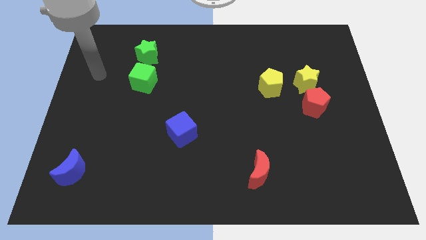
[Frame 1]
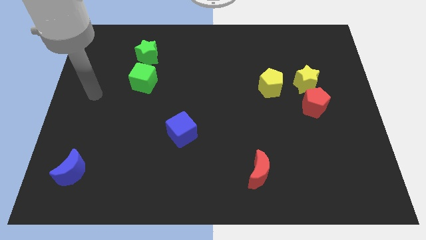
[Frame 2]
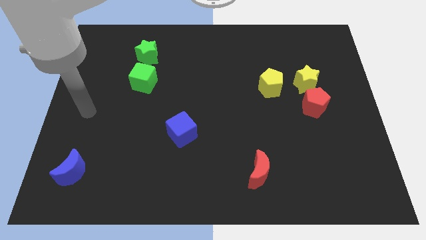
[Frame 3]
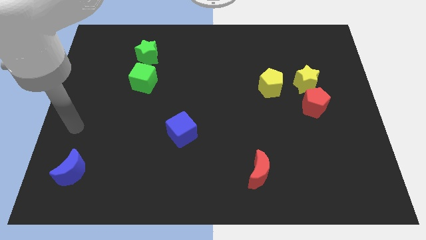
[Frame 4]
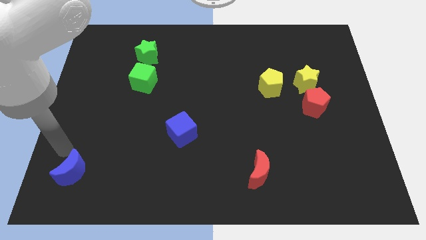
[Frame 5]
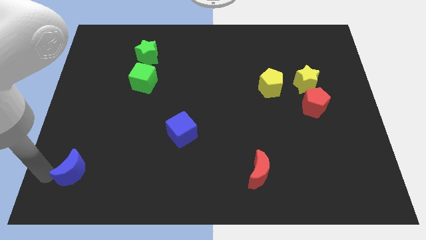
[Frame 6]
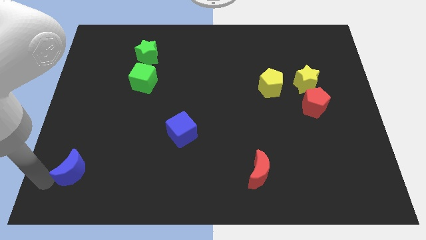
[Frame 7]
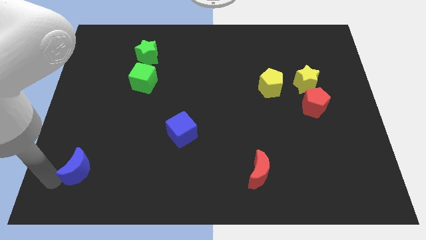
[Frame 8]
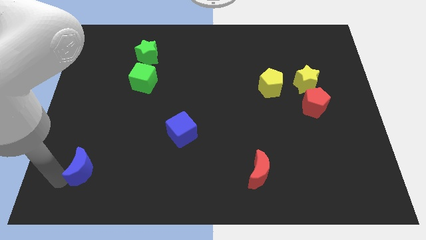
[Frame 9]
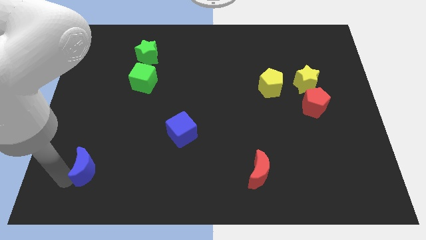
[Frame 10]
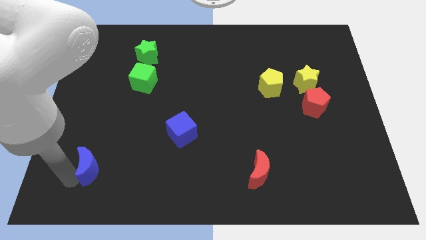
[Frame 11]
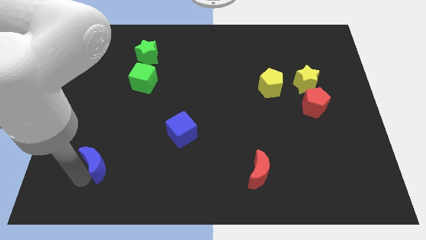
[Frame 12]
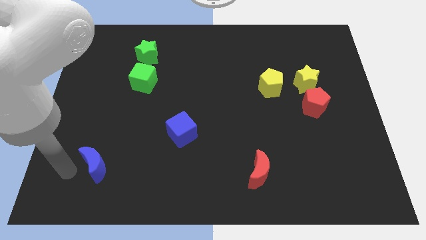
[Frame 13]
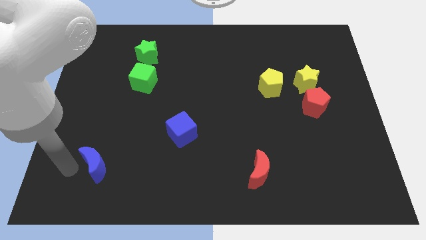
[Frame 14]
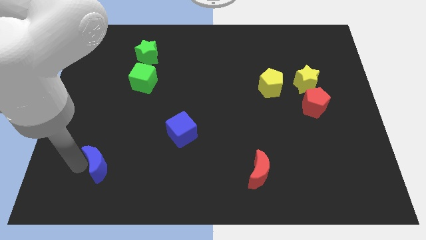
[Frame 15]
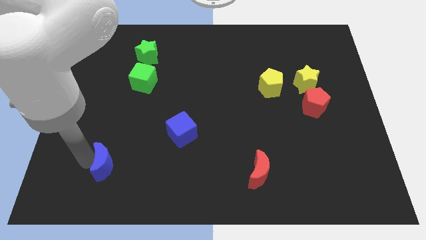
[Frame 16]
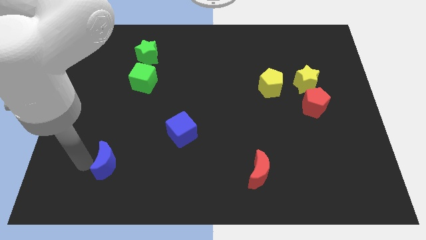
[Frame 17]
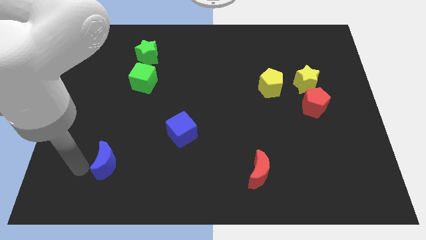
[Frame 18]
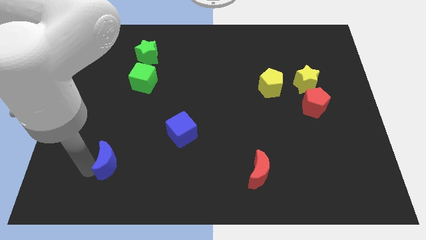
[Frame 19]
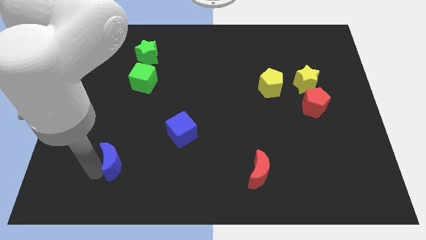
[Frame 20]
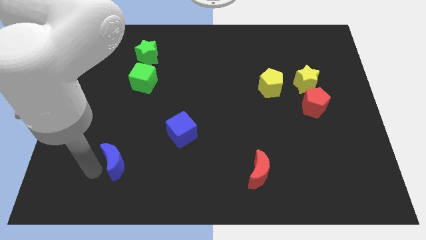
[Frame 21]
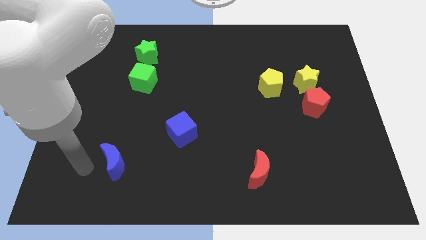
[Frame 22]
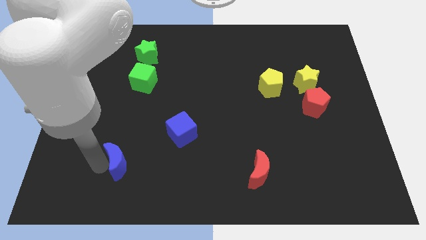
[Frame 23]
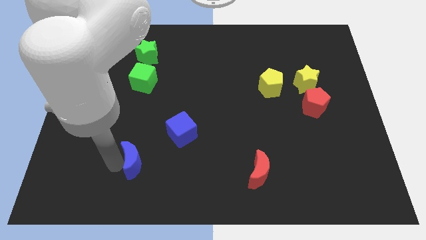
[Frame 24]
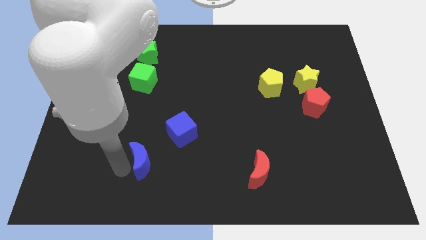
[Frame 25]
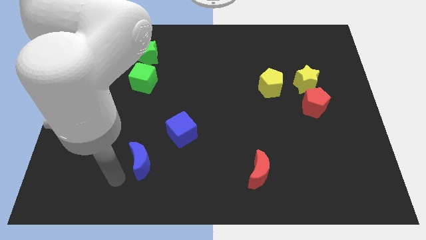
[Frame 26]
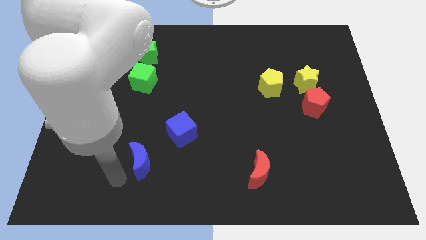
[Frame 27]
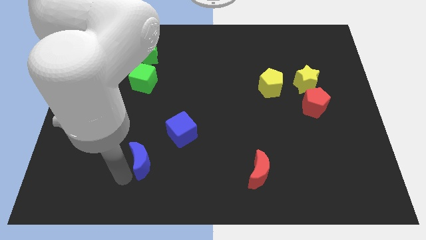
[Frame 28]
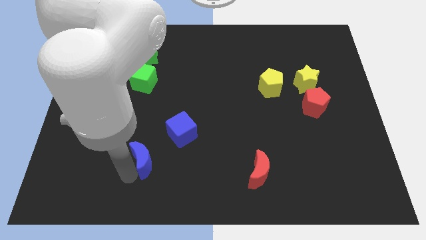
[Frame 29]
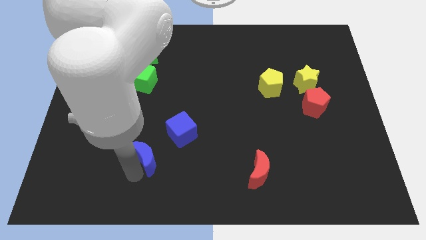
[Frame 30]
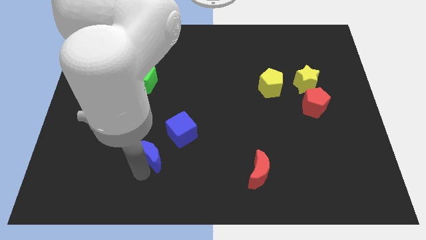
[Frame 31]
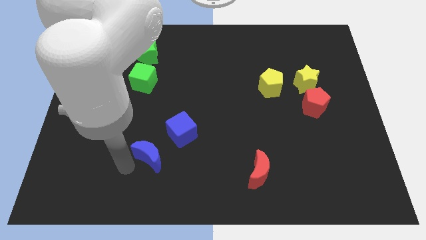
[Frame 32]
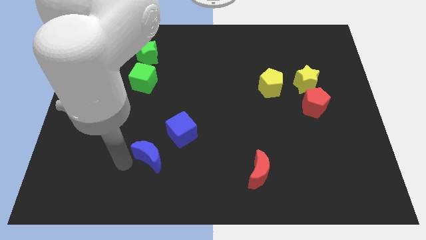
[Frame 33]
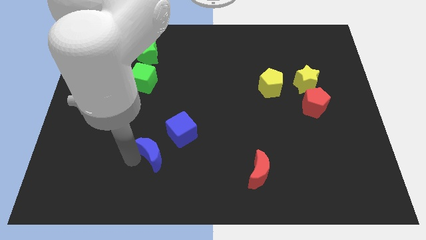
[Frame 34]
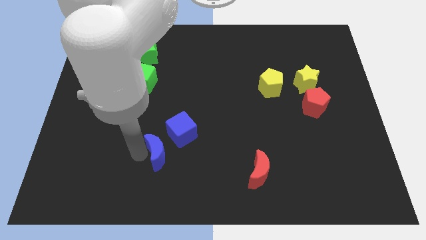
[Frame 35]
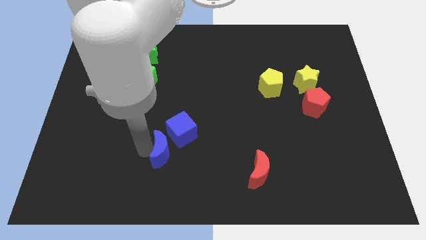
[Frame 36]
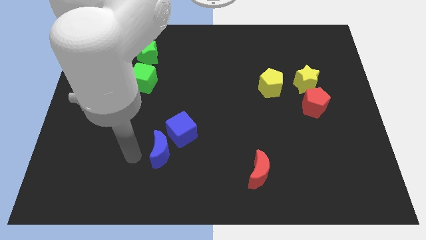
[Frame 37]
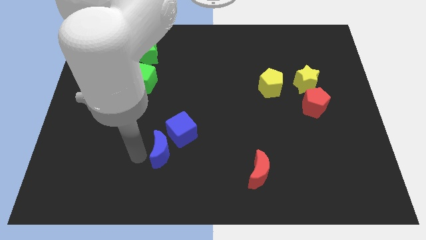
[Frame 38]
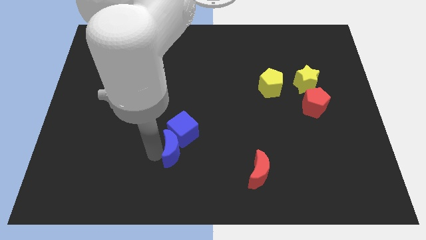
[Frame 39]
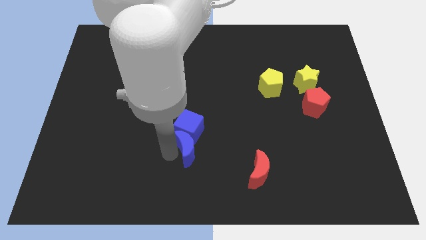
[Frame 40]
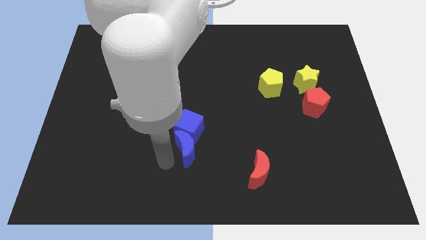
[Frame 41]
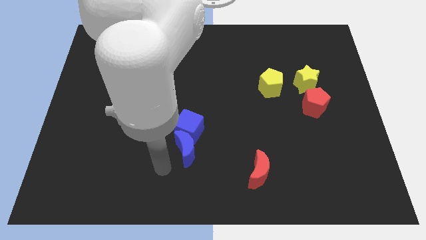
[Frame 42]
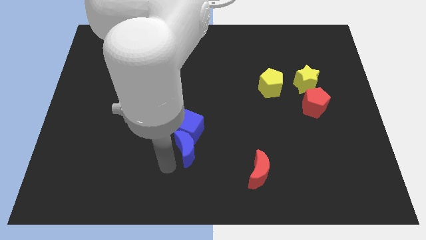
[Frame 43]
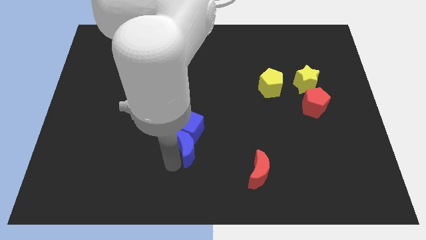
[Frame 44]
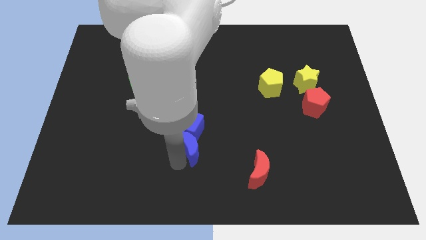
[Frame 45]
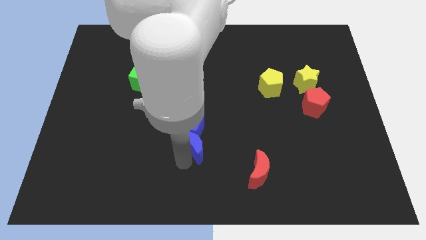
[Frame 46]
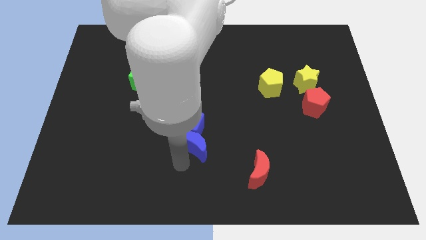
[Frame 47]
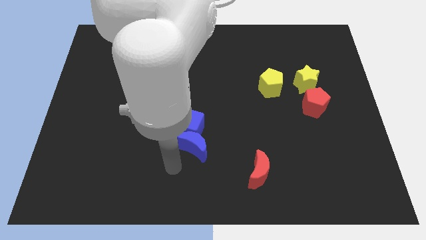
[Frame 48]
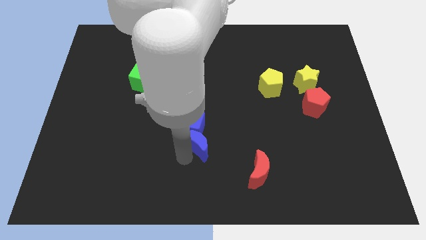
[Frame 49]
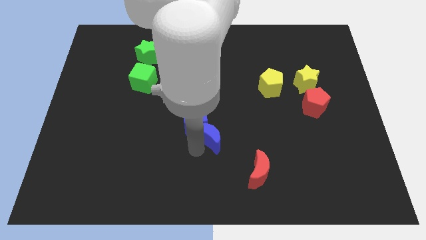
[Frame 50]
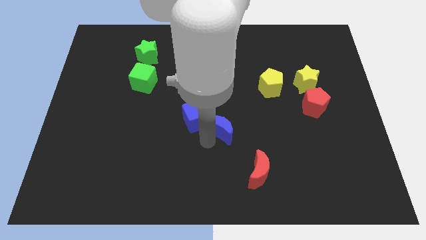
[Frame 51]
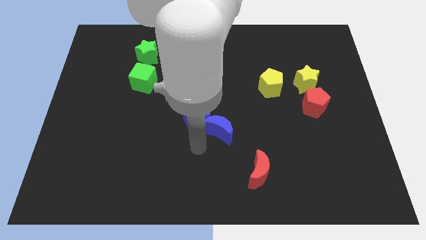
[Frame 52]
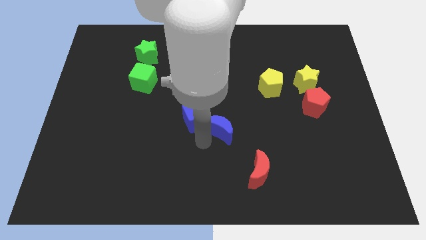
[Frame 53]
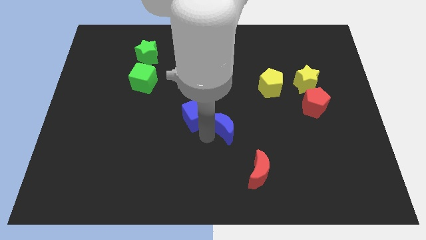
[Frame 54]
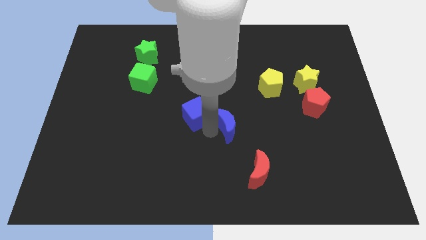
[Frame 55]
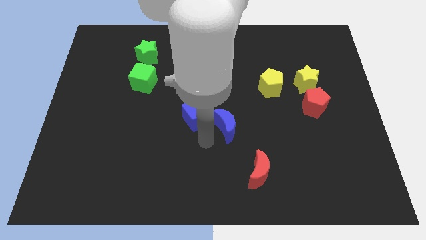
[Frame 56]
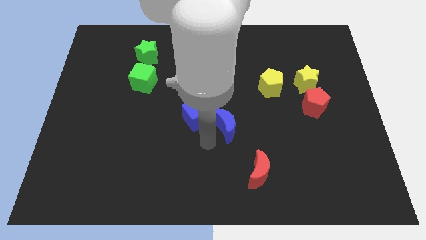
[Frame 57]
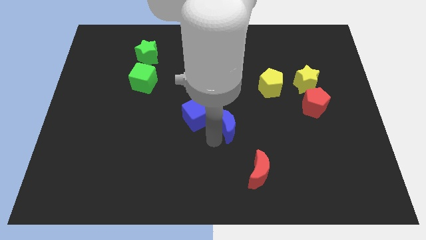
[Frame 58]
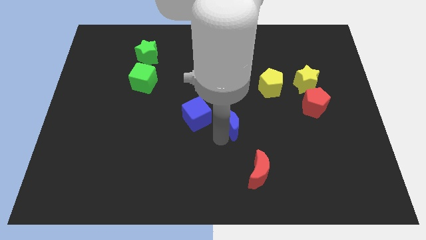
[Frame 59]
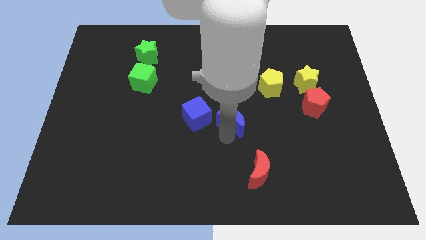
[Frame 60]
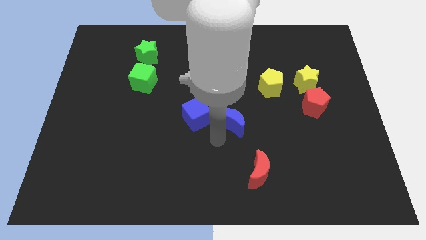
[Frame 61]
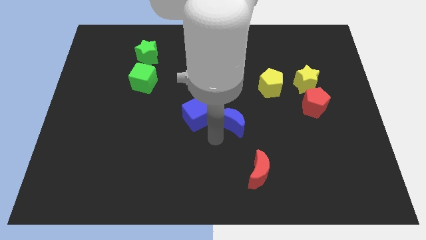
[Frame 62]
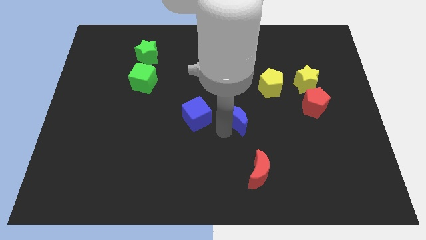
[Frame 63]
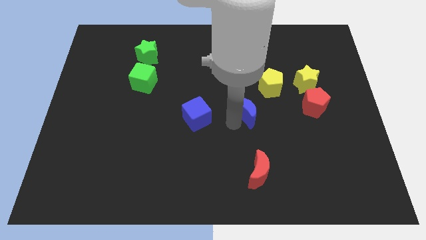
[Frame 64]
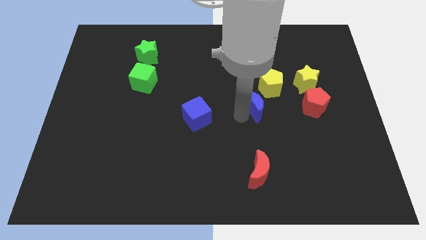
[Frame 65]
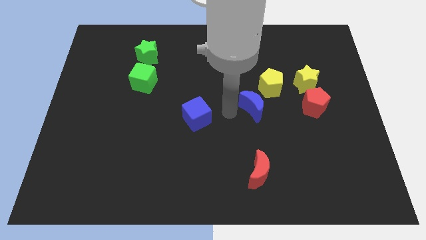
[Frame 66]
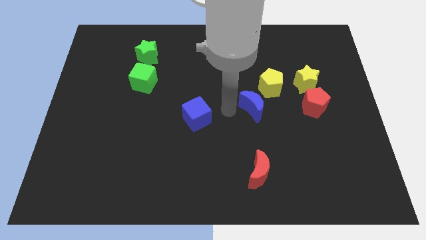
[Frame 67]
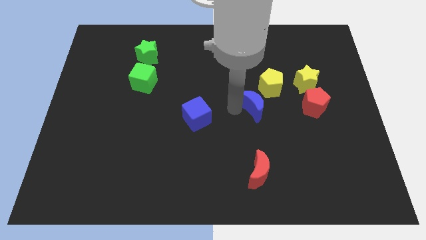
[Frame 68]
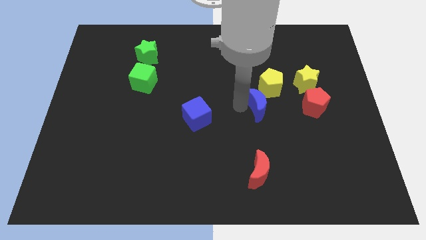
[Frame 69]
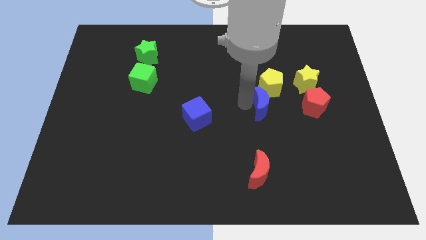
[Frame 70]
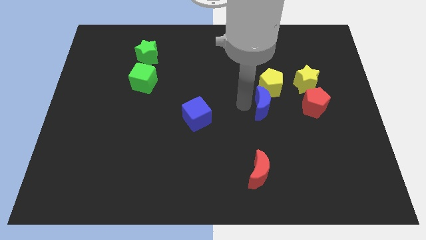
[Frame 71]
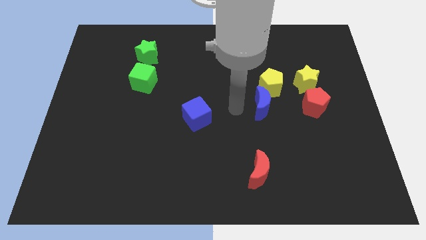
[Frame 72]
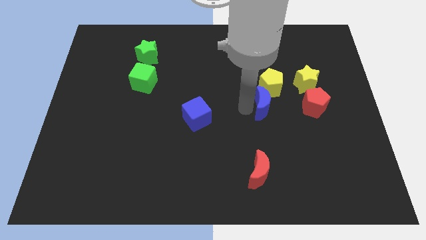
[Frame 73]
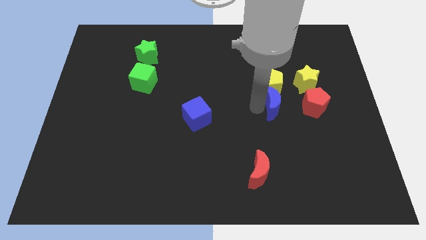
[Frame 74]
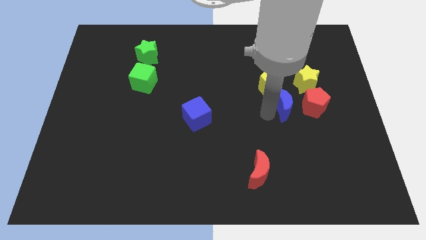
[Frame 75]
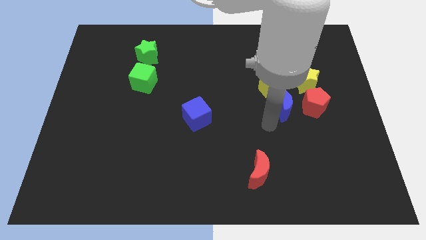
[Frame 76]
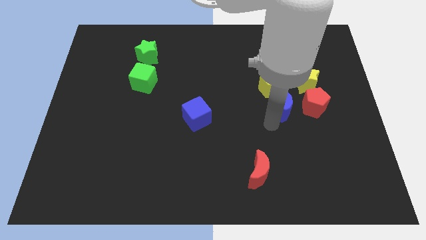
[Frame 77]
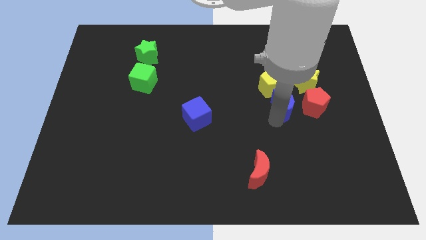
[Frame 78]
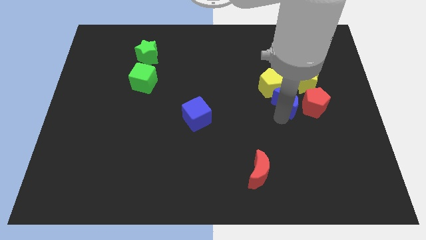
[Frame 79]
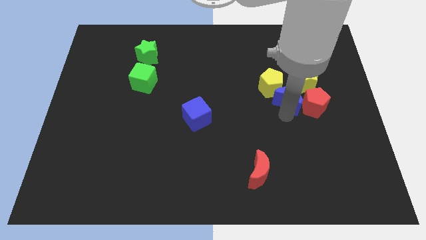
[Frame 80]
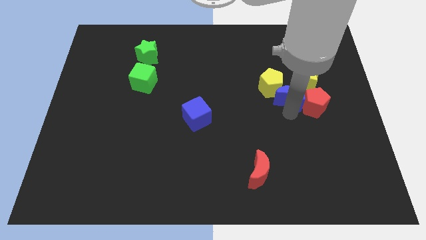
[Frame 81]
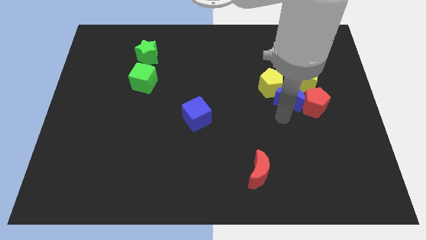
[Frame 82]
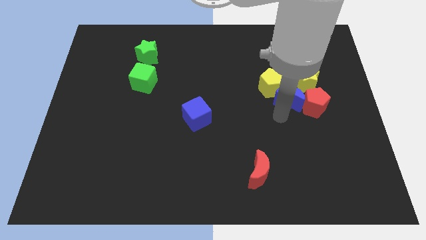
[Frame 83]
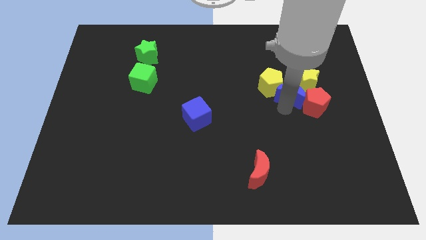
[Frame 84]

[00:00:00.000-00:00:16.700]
push the blue moon next to the yellow star
